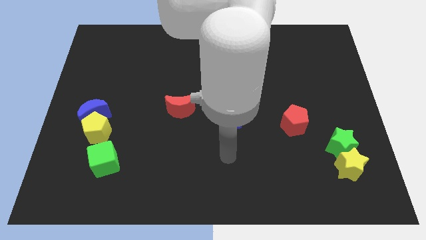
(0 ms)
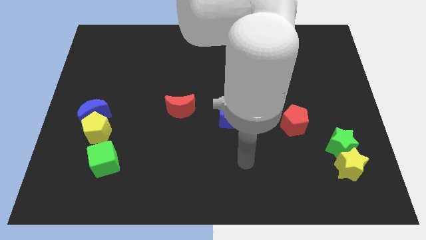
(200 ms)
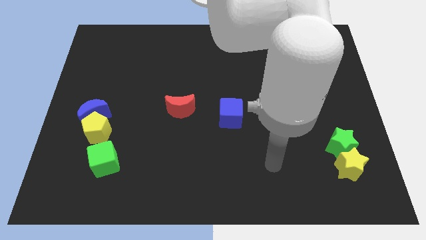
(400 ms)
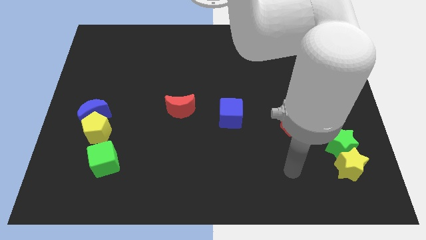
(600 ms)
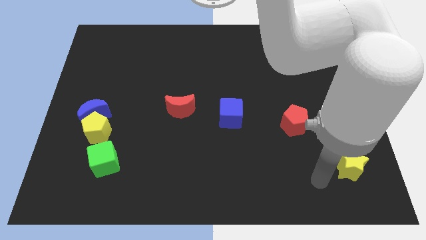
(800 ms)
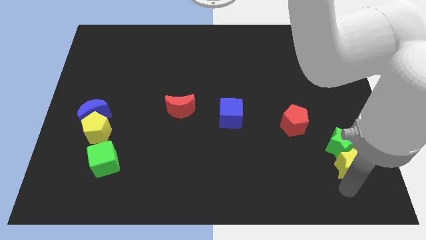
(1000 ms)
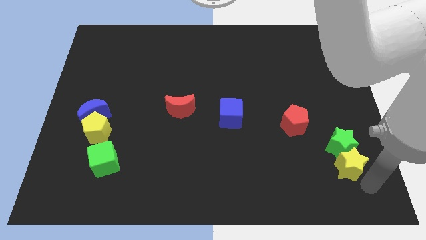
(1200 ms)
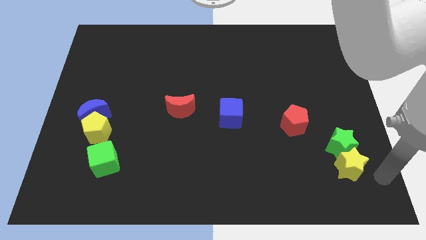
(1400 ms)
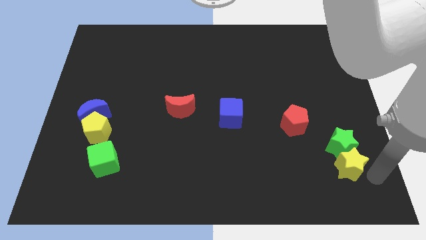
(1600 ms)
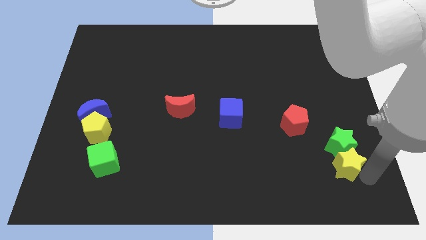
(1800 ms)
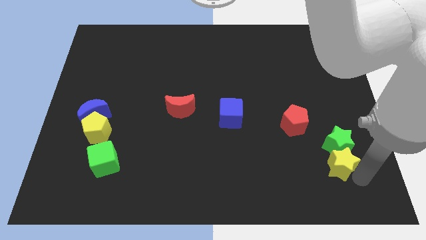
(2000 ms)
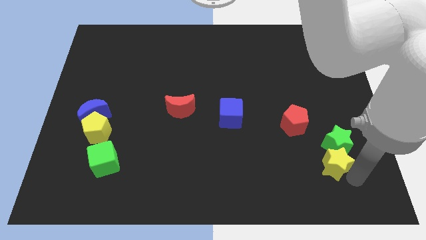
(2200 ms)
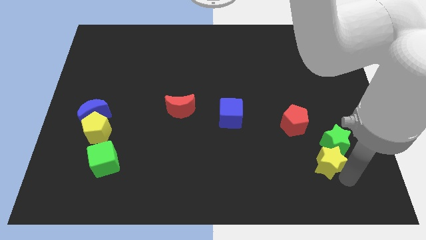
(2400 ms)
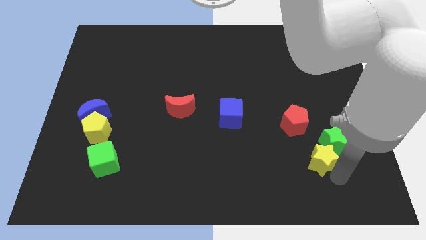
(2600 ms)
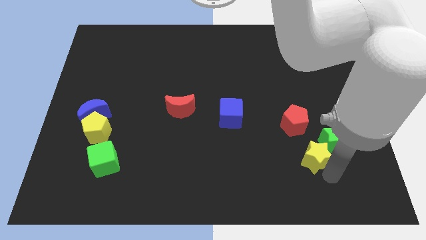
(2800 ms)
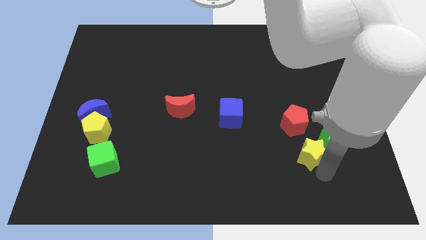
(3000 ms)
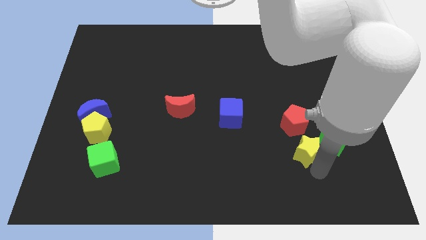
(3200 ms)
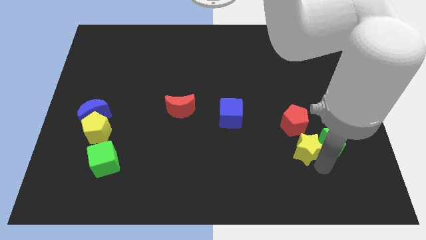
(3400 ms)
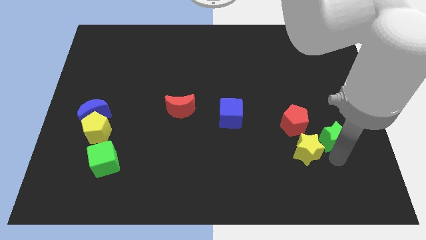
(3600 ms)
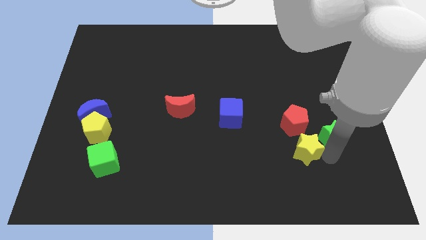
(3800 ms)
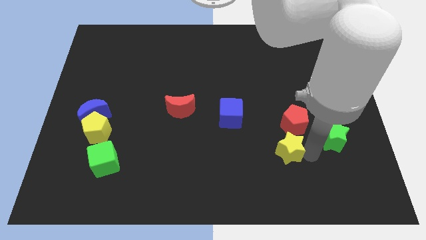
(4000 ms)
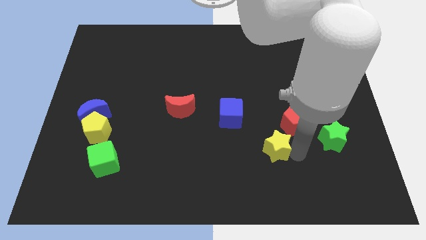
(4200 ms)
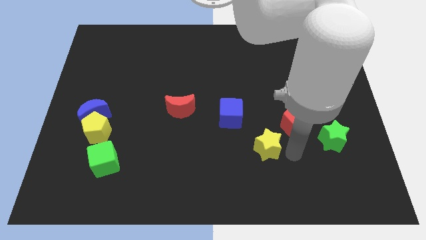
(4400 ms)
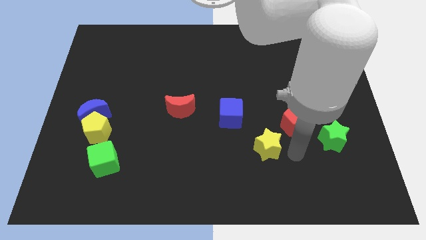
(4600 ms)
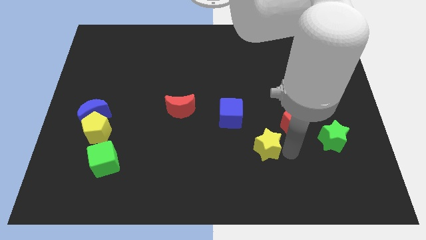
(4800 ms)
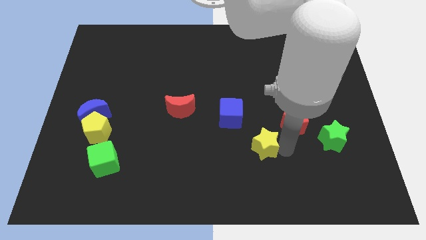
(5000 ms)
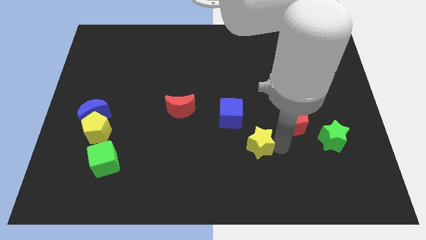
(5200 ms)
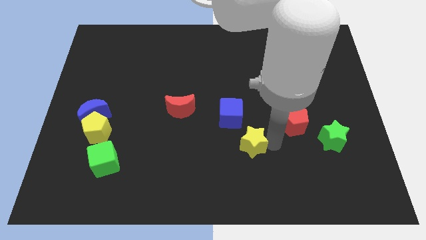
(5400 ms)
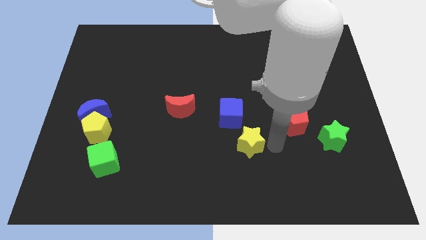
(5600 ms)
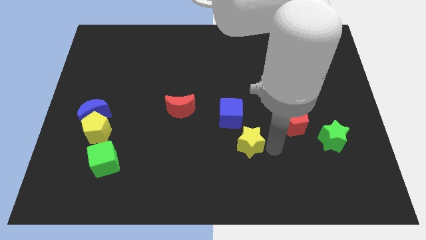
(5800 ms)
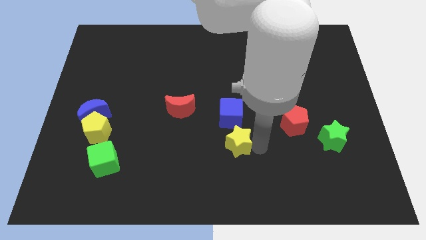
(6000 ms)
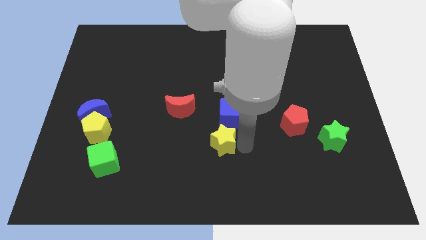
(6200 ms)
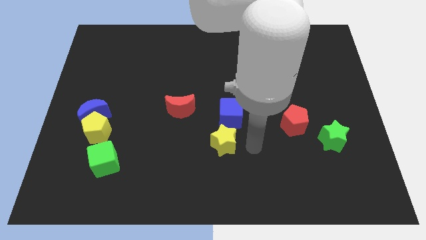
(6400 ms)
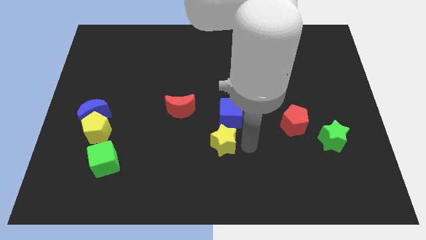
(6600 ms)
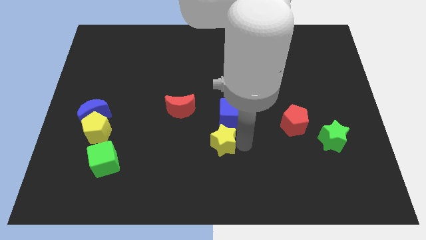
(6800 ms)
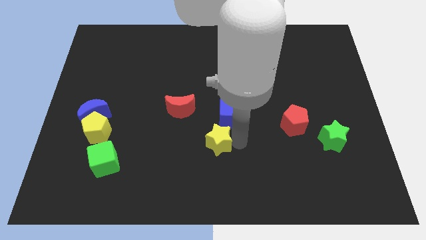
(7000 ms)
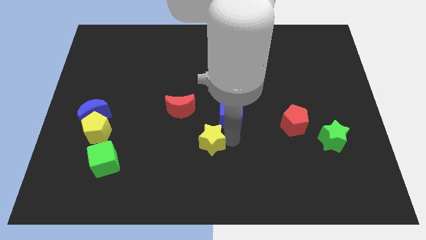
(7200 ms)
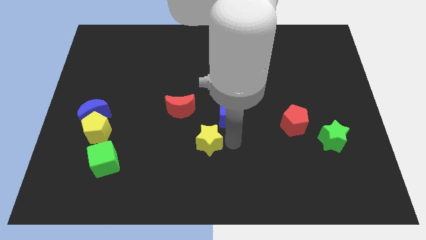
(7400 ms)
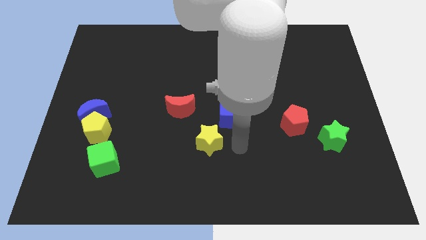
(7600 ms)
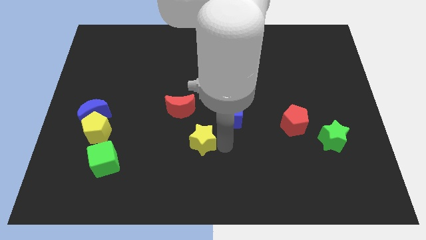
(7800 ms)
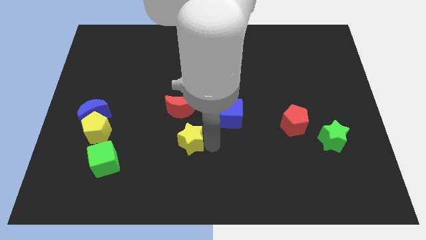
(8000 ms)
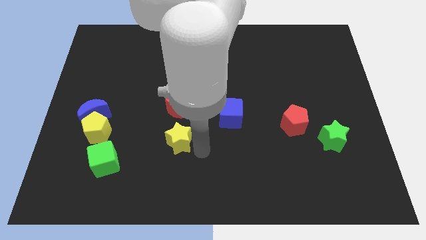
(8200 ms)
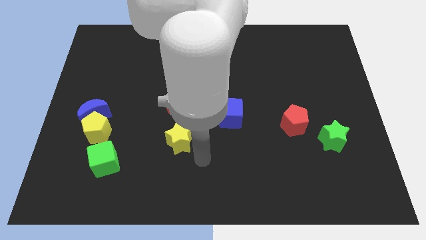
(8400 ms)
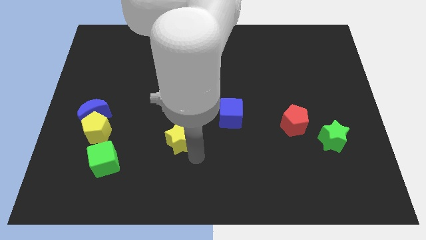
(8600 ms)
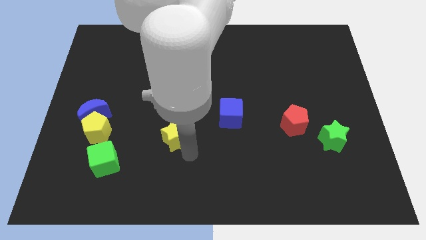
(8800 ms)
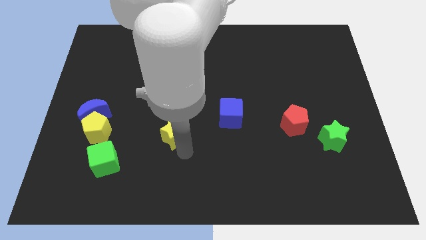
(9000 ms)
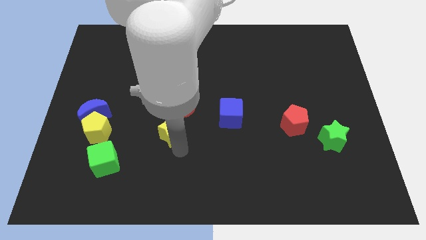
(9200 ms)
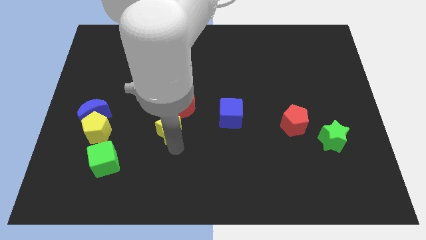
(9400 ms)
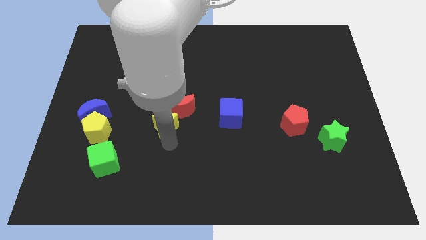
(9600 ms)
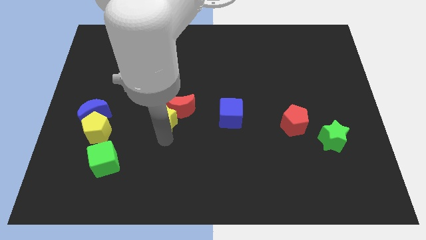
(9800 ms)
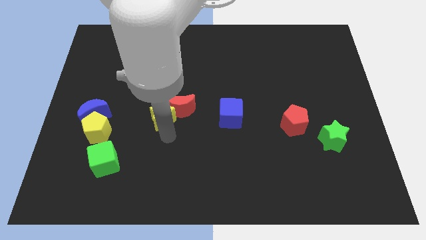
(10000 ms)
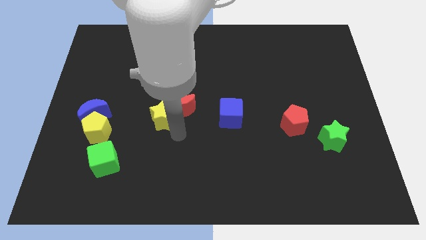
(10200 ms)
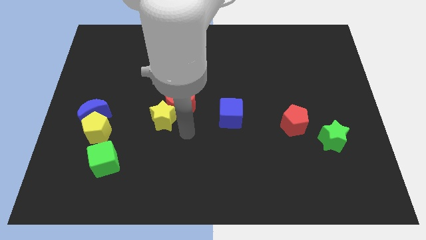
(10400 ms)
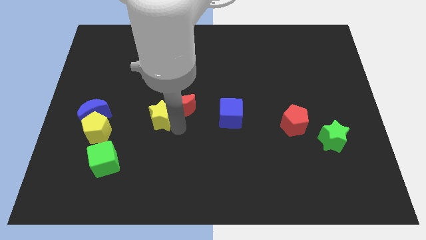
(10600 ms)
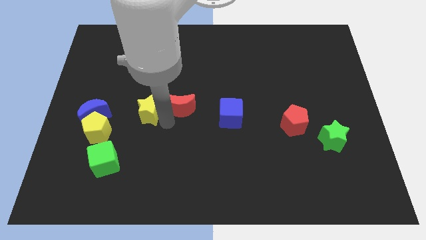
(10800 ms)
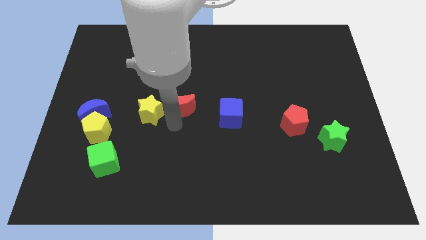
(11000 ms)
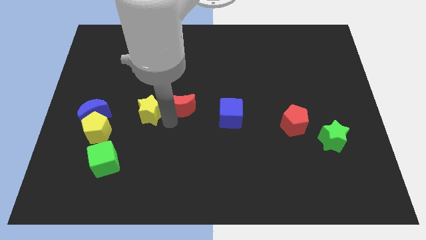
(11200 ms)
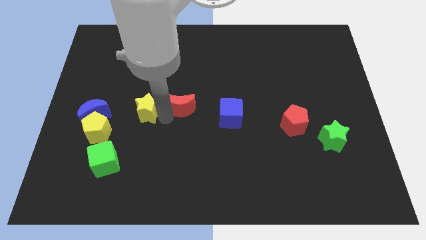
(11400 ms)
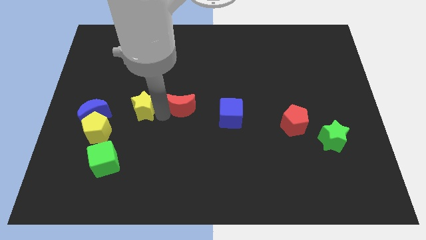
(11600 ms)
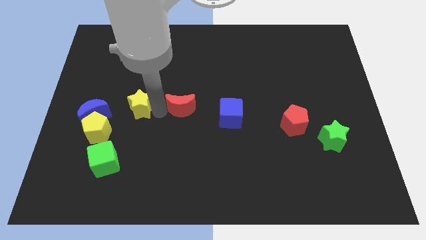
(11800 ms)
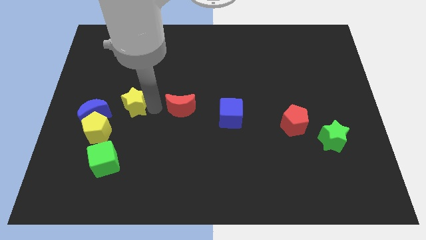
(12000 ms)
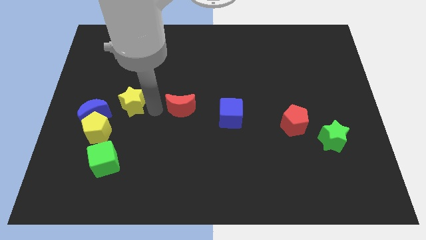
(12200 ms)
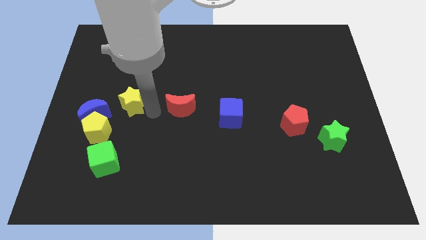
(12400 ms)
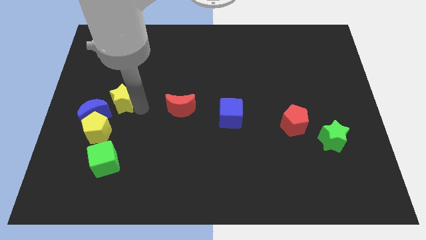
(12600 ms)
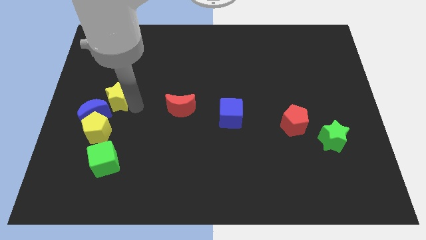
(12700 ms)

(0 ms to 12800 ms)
move the yellow star towards the blue moon

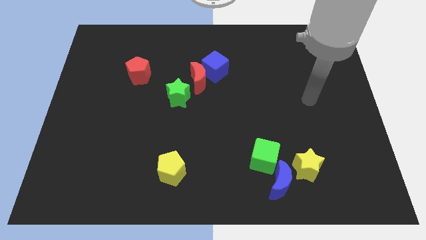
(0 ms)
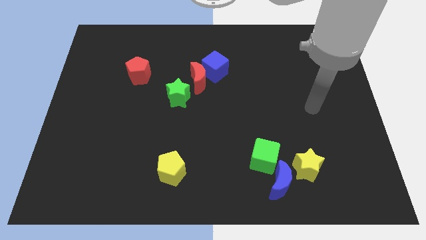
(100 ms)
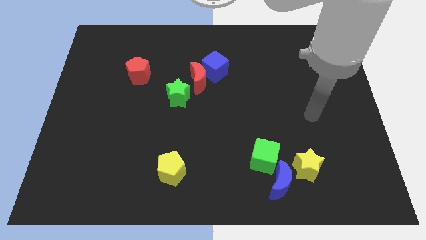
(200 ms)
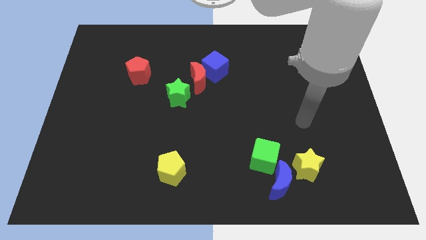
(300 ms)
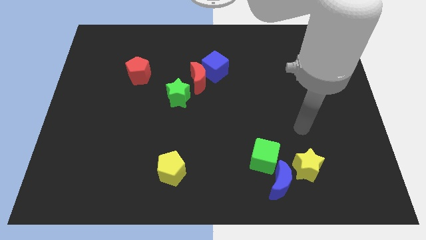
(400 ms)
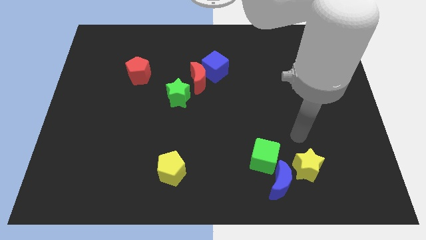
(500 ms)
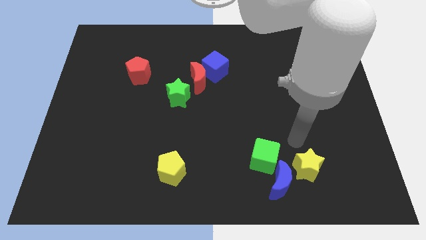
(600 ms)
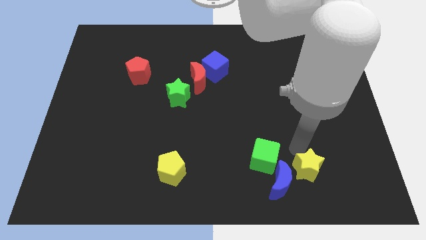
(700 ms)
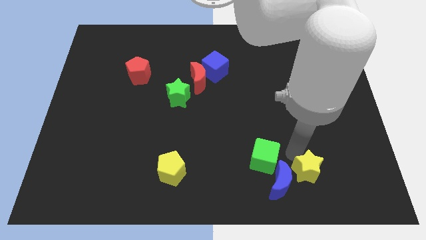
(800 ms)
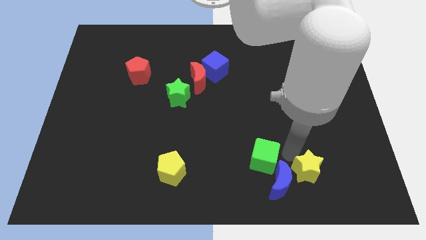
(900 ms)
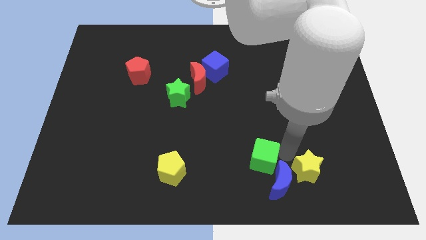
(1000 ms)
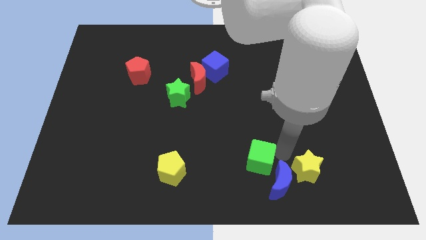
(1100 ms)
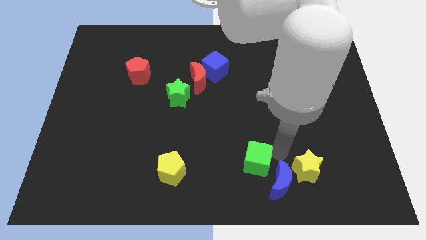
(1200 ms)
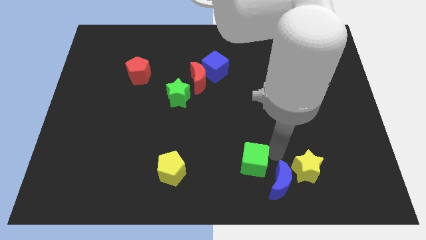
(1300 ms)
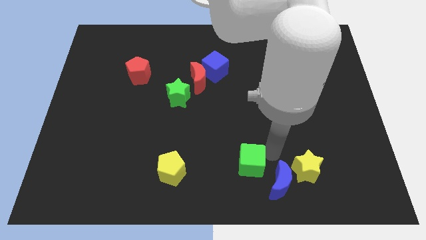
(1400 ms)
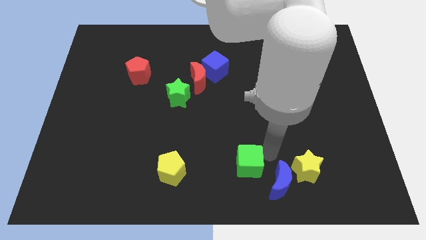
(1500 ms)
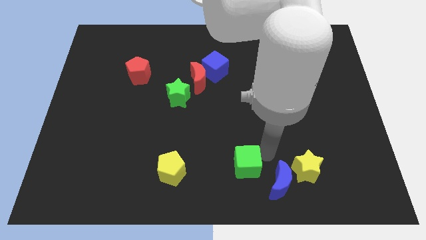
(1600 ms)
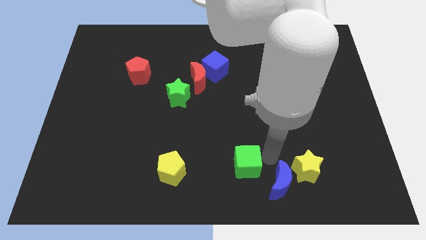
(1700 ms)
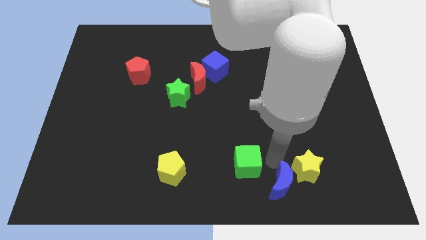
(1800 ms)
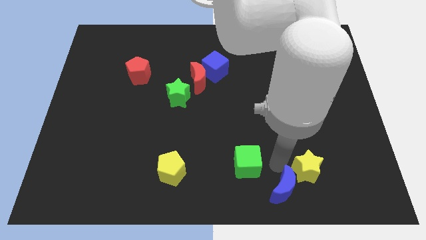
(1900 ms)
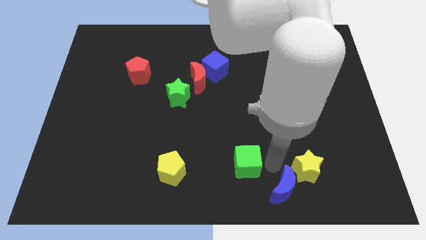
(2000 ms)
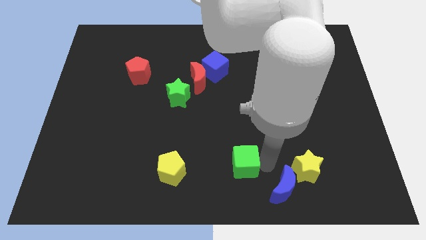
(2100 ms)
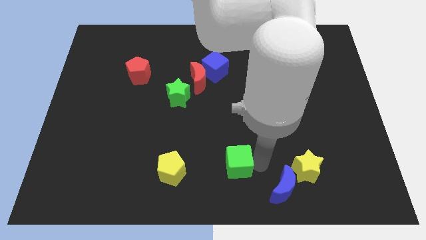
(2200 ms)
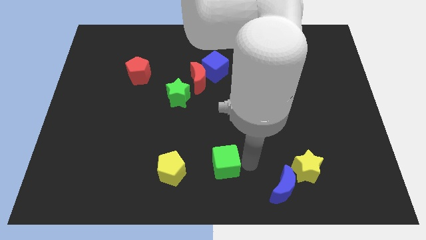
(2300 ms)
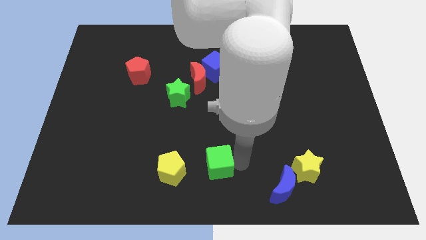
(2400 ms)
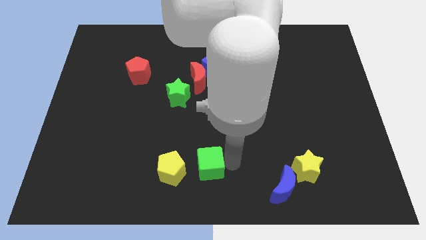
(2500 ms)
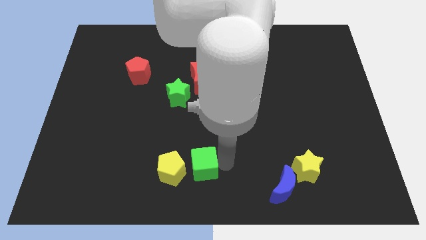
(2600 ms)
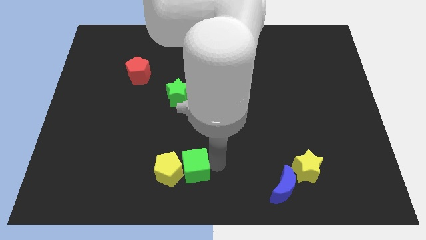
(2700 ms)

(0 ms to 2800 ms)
move the green cube next to the yellow pentagon

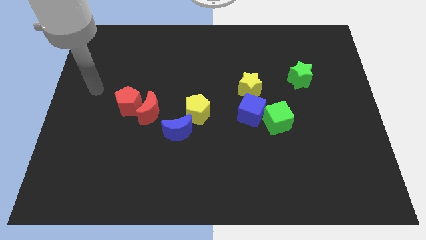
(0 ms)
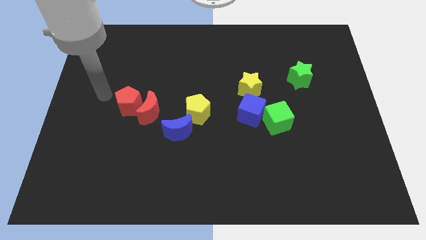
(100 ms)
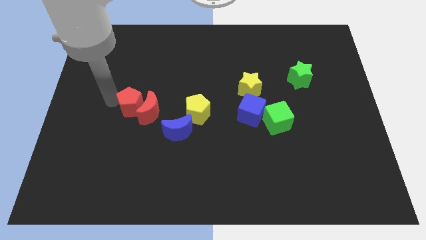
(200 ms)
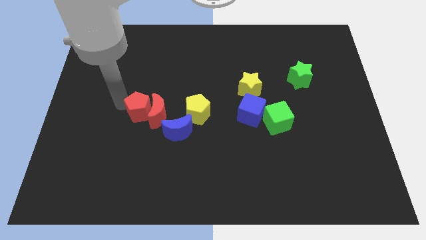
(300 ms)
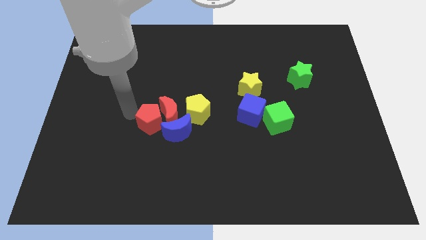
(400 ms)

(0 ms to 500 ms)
put the red moon towards the yellow pentagon
